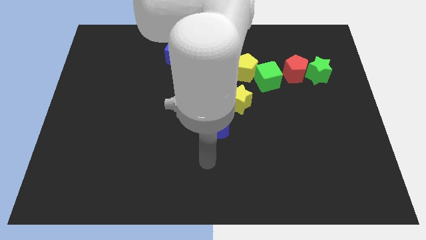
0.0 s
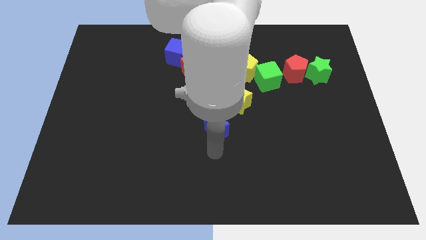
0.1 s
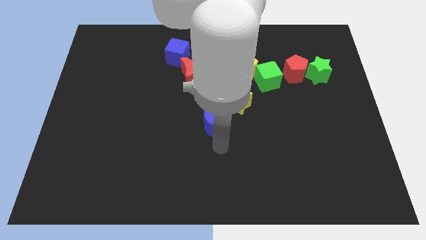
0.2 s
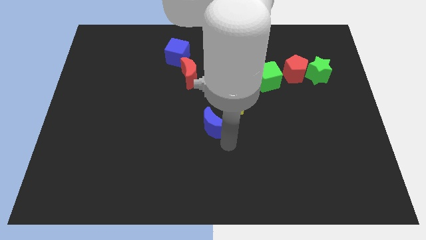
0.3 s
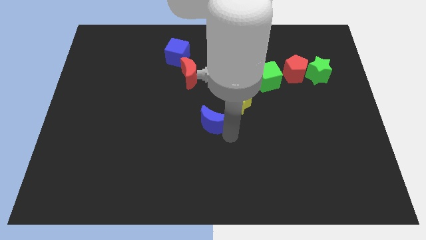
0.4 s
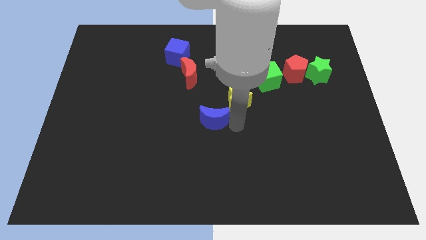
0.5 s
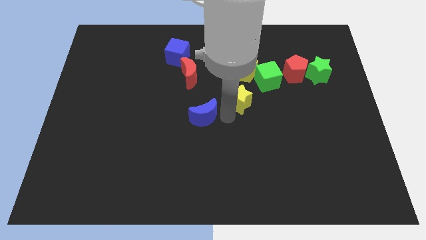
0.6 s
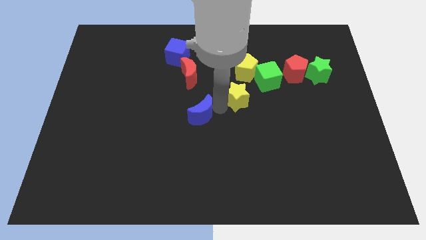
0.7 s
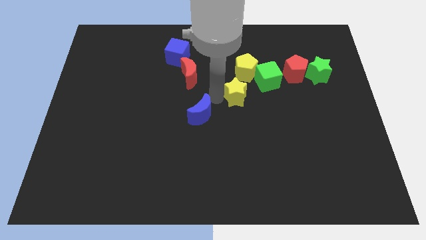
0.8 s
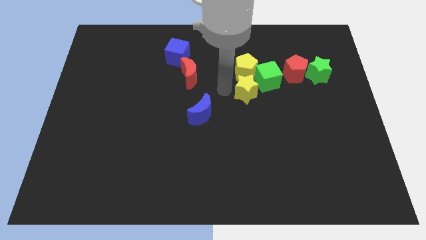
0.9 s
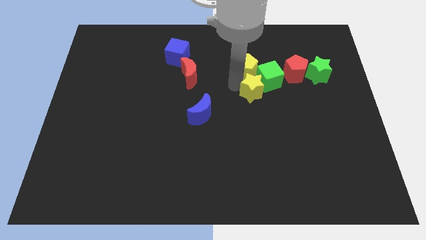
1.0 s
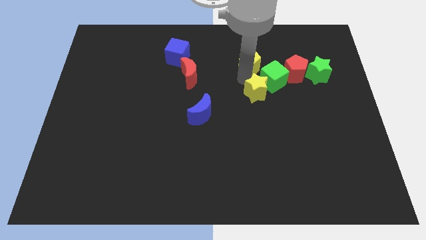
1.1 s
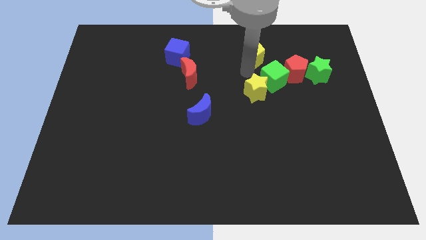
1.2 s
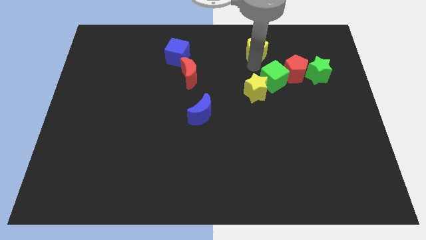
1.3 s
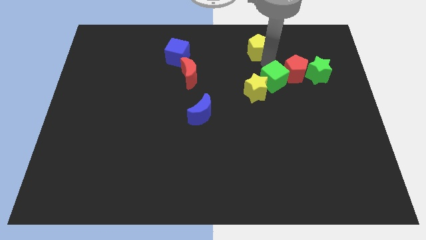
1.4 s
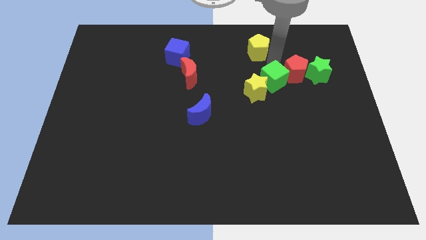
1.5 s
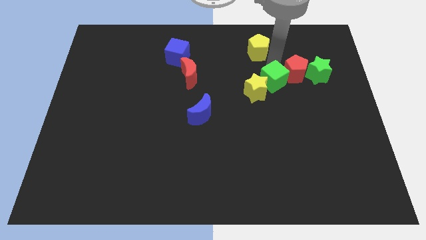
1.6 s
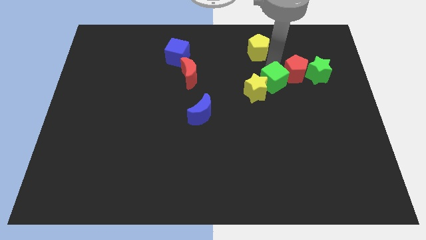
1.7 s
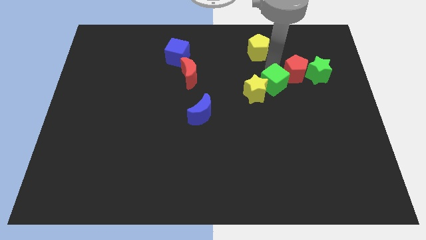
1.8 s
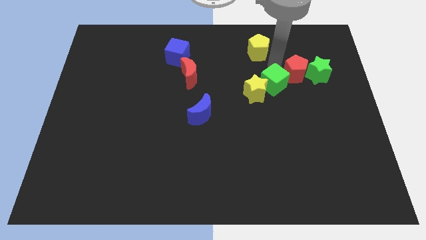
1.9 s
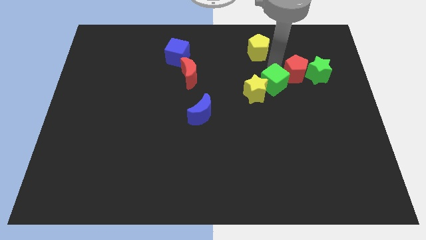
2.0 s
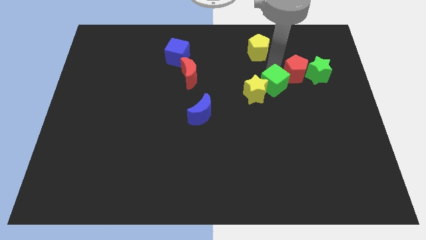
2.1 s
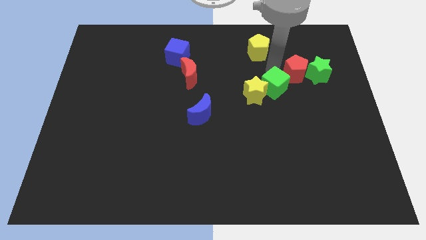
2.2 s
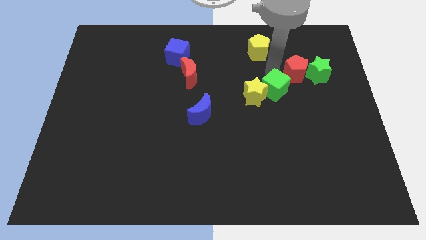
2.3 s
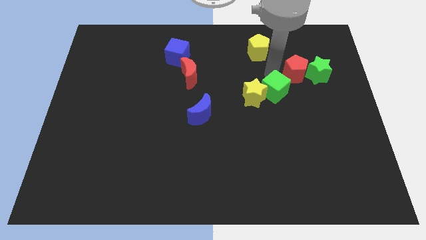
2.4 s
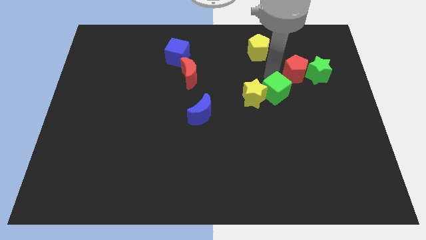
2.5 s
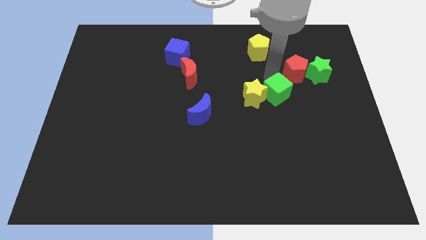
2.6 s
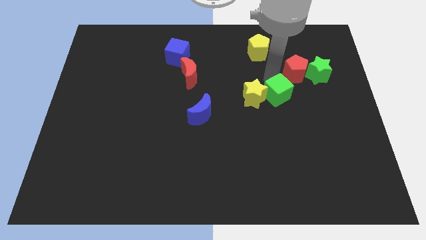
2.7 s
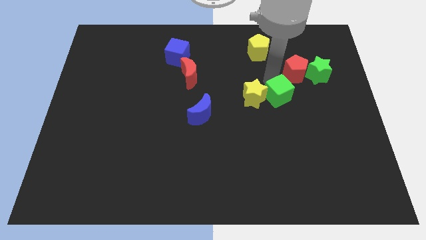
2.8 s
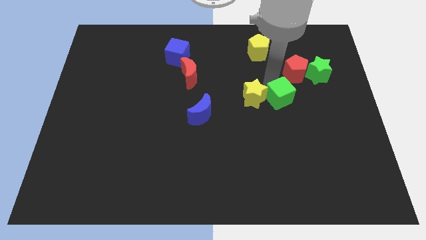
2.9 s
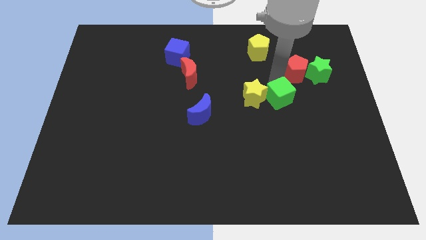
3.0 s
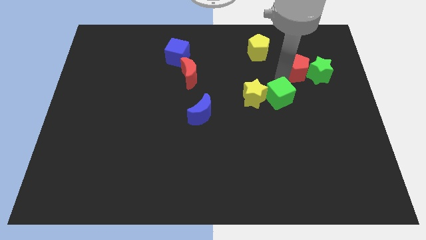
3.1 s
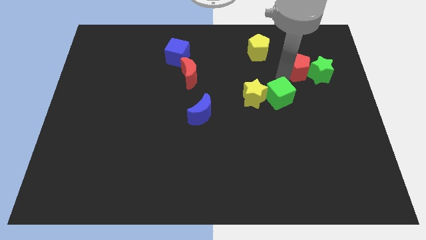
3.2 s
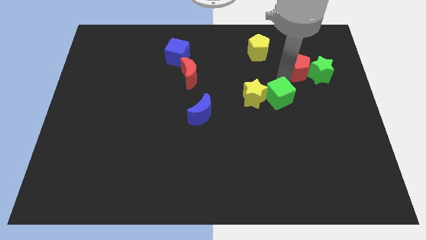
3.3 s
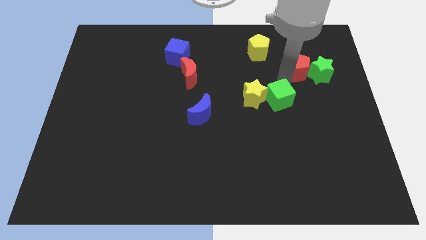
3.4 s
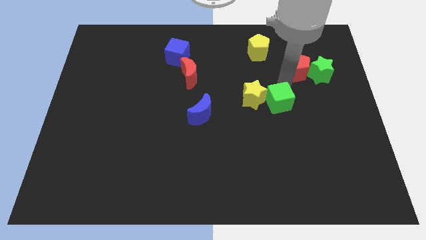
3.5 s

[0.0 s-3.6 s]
push the green cube downwards a little bit

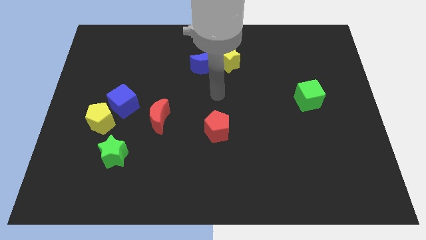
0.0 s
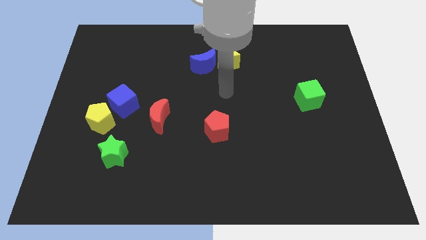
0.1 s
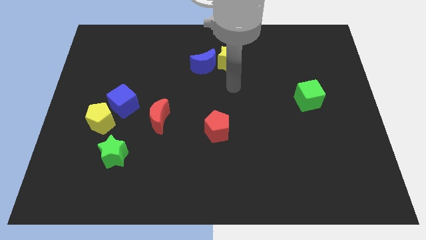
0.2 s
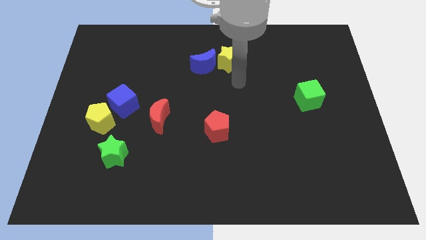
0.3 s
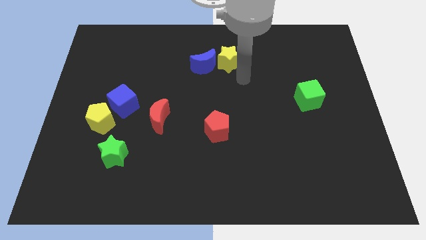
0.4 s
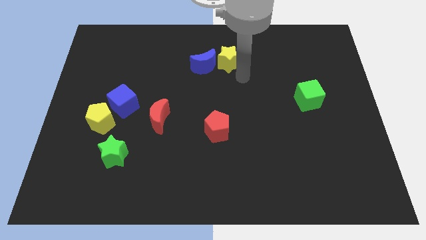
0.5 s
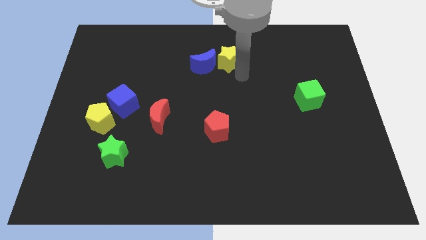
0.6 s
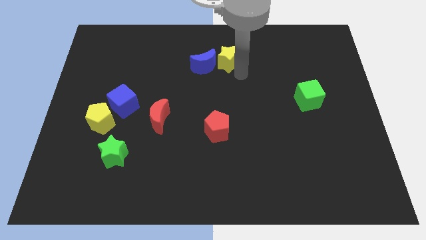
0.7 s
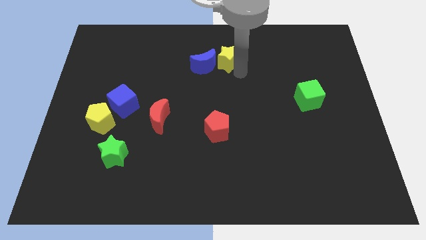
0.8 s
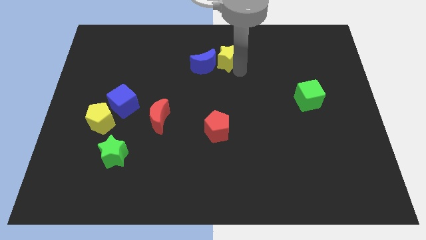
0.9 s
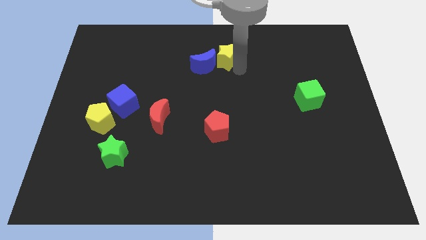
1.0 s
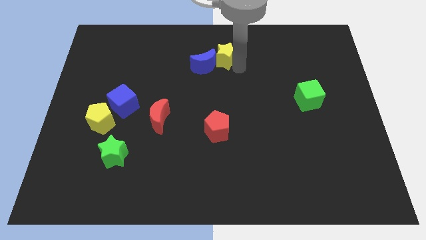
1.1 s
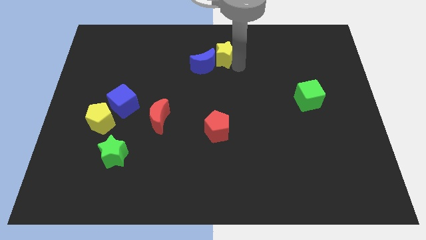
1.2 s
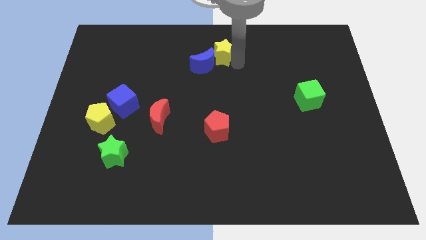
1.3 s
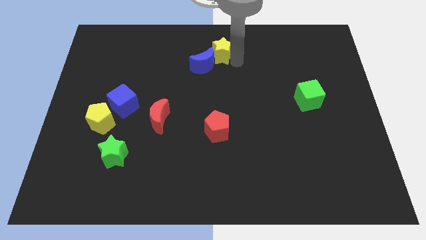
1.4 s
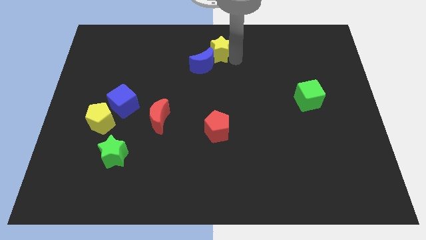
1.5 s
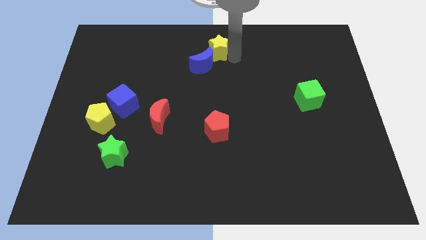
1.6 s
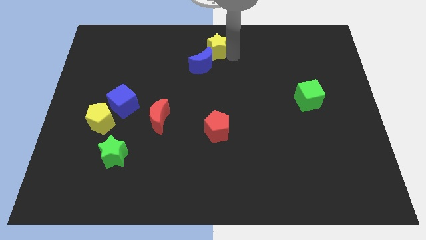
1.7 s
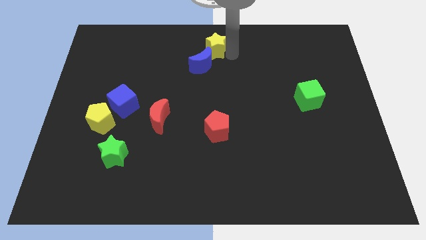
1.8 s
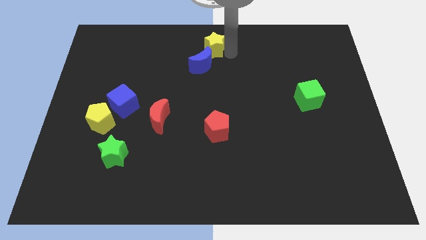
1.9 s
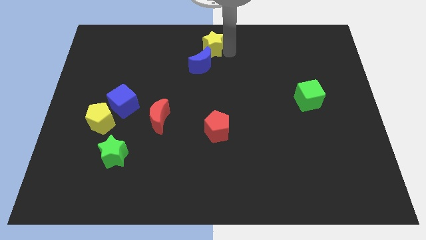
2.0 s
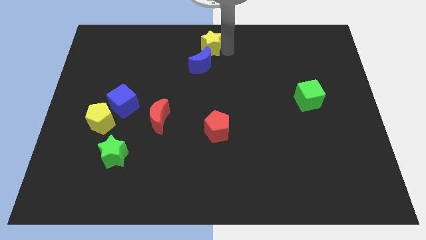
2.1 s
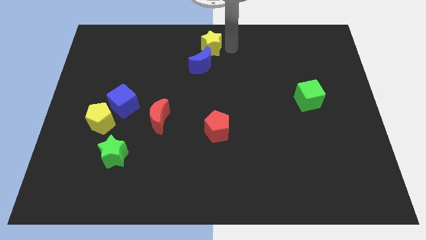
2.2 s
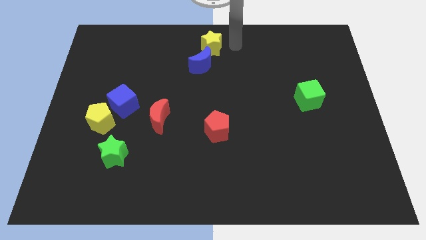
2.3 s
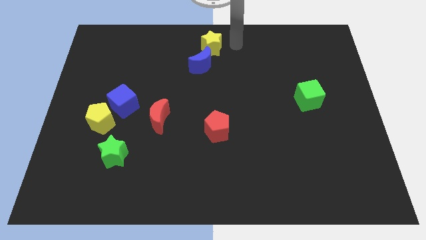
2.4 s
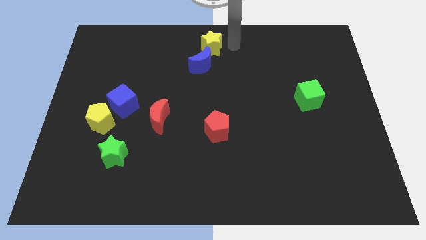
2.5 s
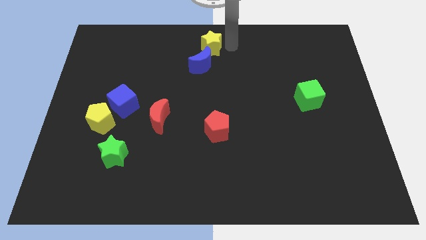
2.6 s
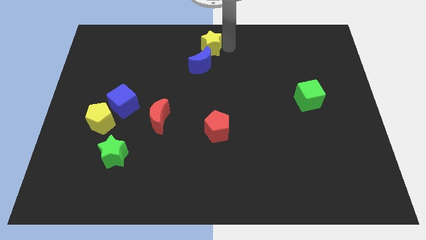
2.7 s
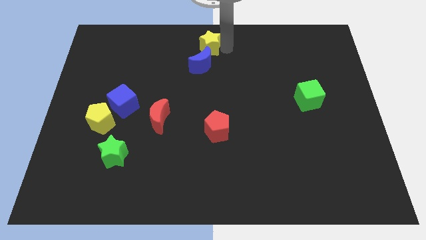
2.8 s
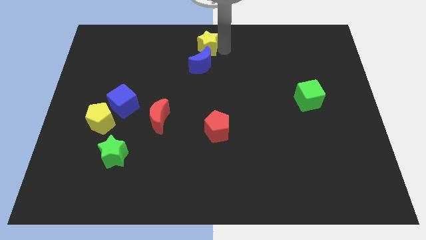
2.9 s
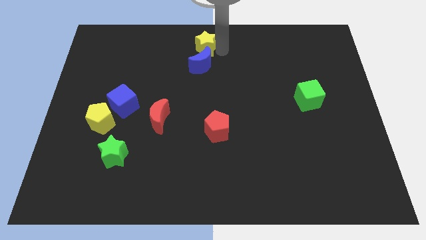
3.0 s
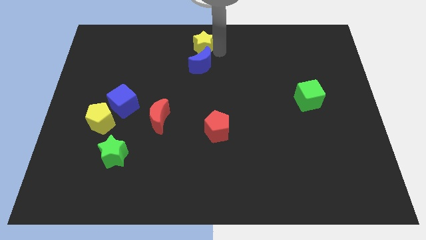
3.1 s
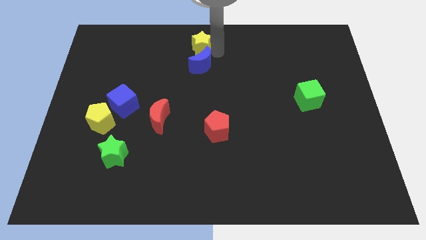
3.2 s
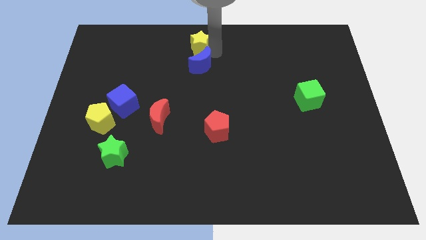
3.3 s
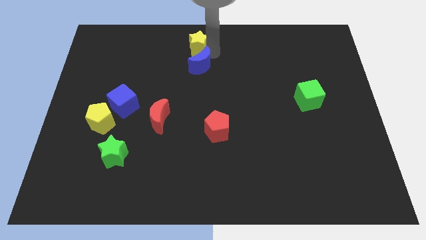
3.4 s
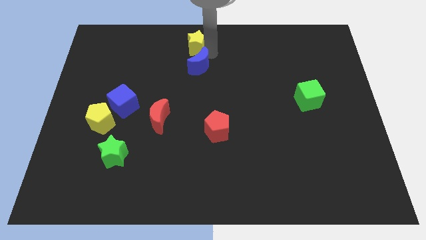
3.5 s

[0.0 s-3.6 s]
slightly move the yellow star to the left

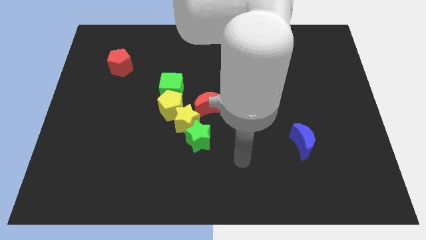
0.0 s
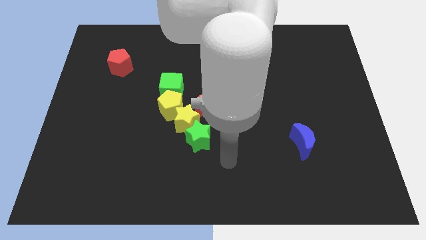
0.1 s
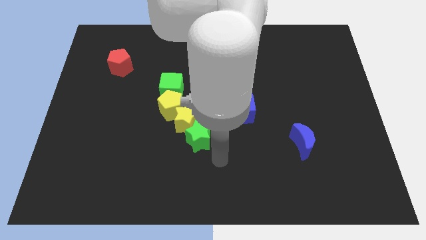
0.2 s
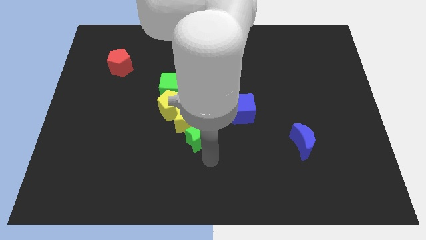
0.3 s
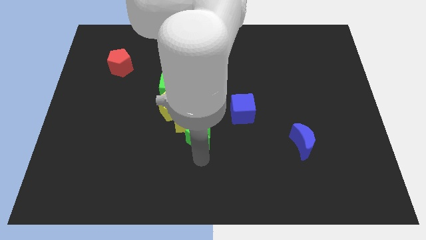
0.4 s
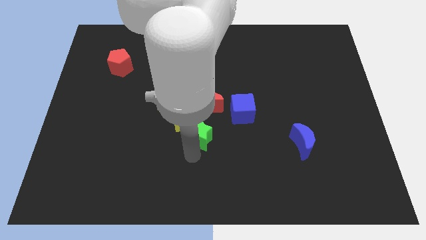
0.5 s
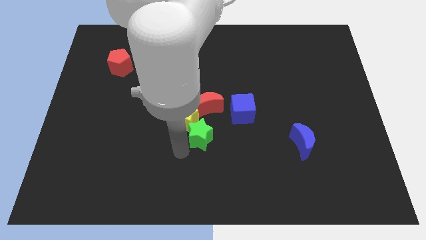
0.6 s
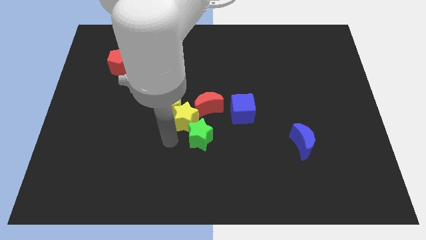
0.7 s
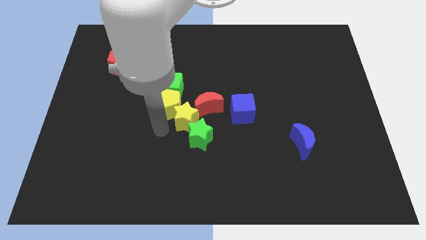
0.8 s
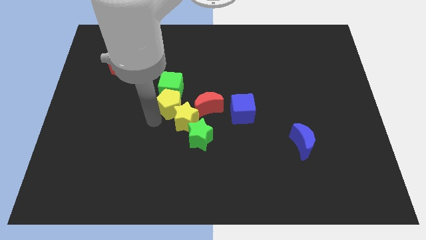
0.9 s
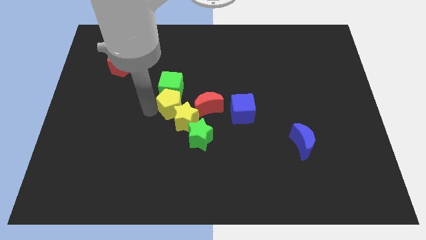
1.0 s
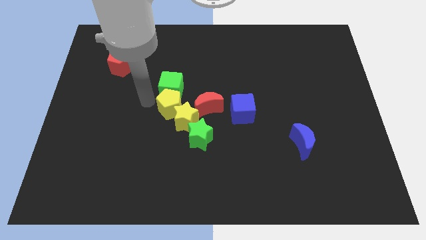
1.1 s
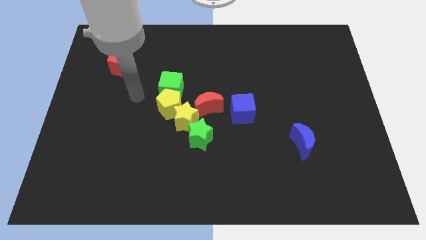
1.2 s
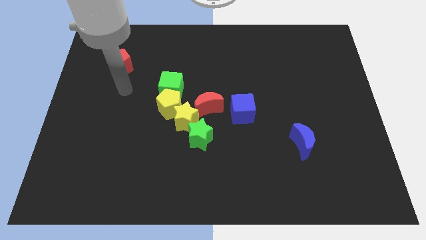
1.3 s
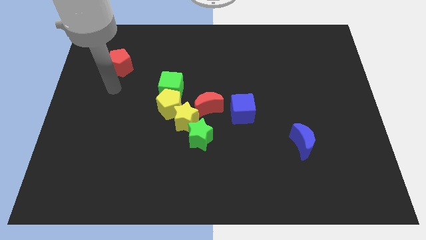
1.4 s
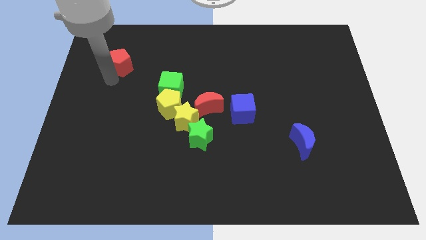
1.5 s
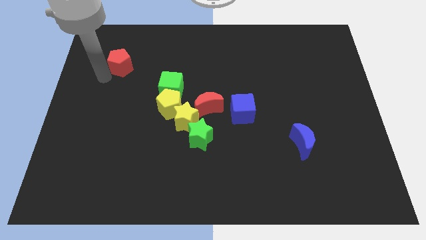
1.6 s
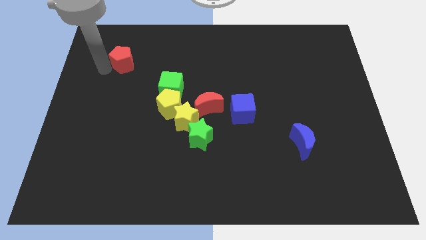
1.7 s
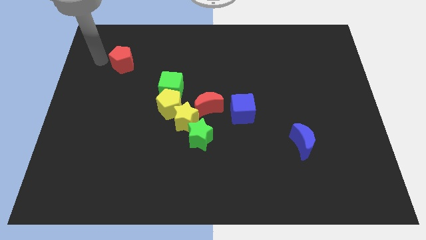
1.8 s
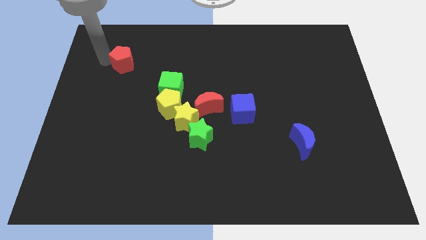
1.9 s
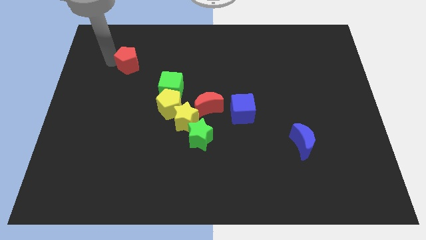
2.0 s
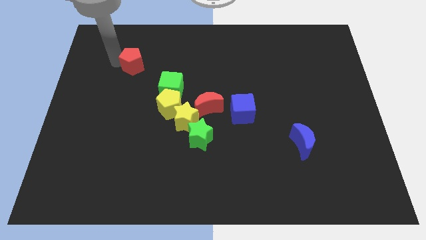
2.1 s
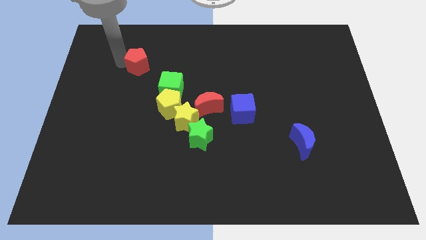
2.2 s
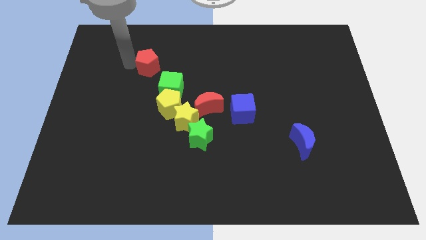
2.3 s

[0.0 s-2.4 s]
push the red pentagon right a little bit
